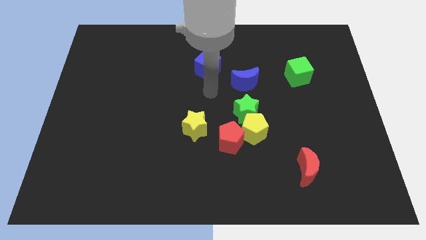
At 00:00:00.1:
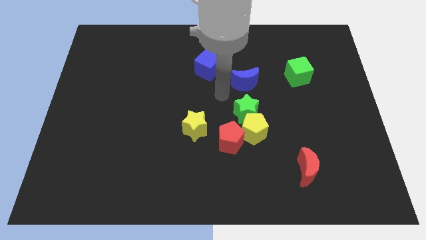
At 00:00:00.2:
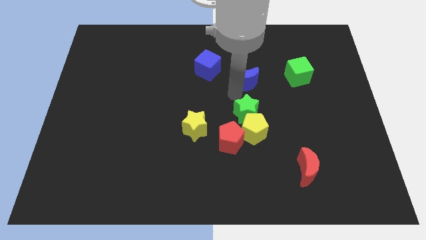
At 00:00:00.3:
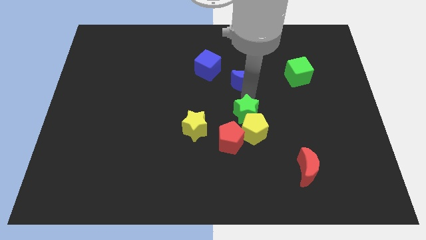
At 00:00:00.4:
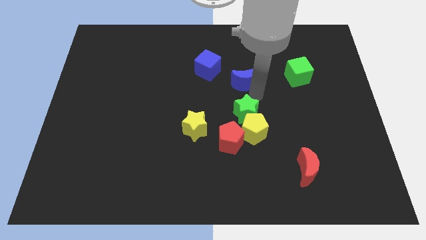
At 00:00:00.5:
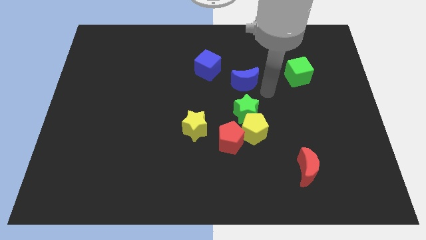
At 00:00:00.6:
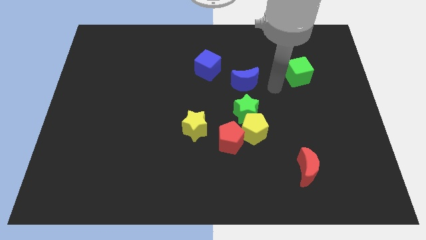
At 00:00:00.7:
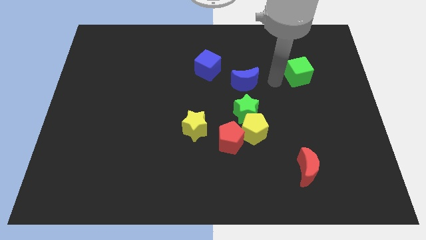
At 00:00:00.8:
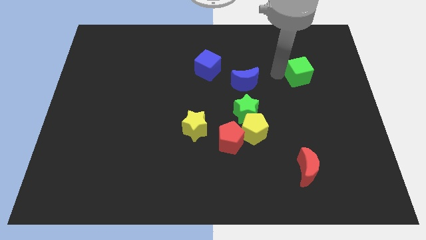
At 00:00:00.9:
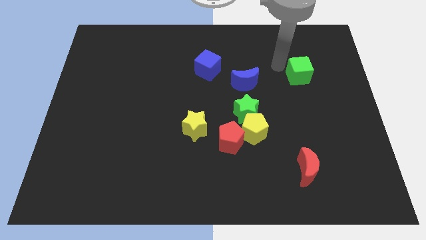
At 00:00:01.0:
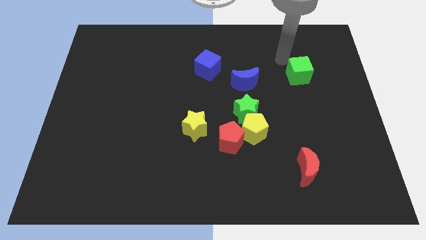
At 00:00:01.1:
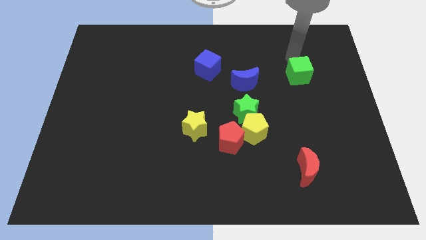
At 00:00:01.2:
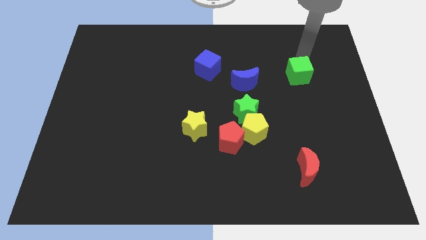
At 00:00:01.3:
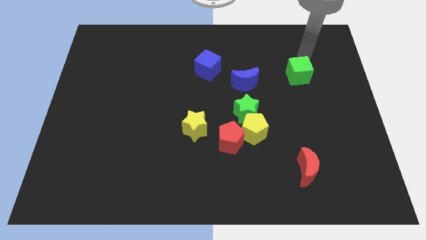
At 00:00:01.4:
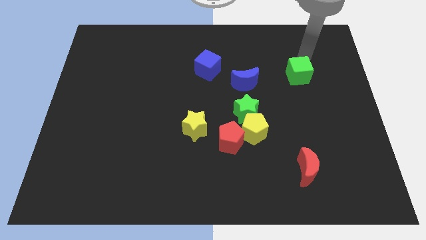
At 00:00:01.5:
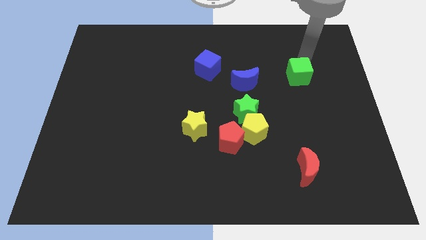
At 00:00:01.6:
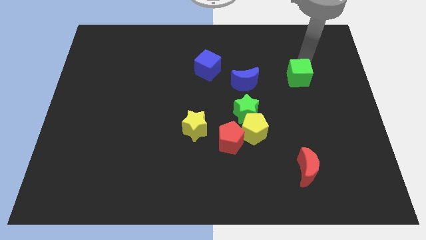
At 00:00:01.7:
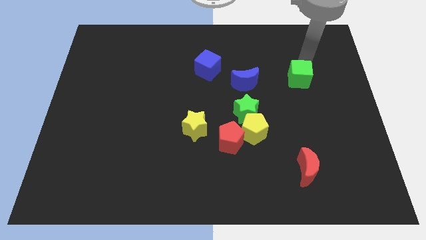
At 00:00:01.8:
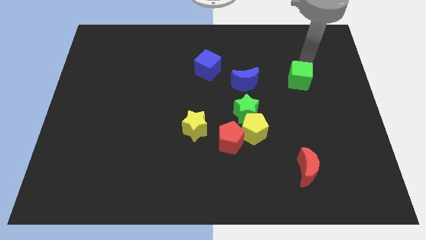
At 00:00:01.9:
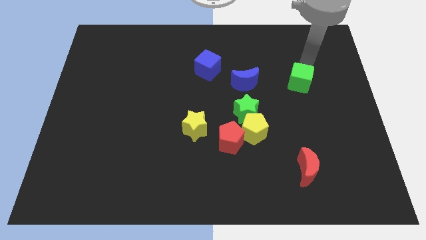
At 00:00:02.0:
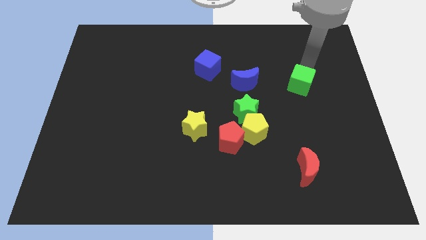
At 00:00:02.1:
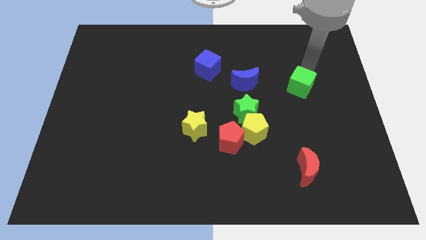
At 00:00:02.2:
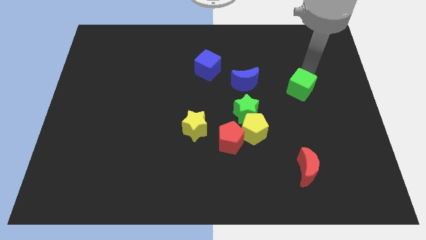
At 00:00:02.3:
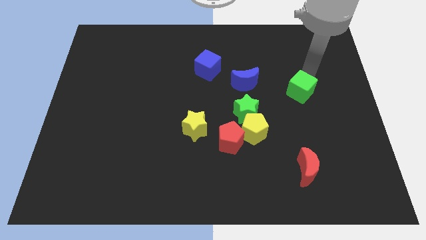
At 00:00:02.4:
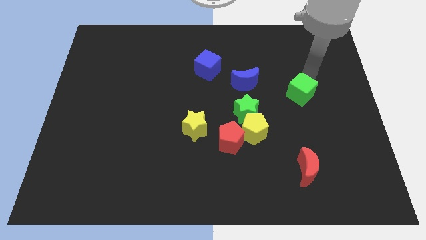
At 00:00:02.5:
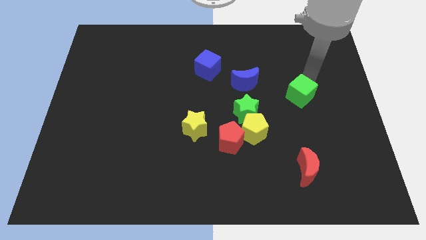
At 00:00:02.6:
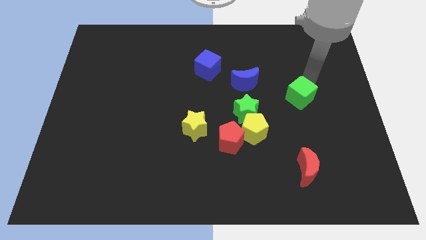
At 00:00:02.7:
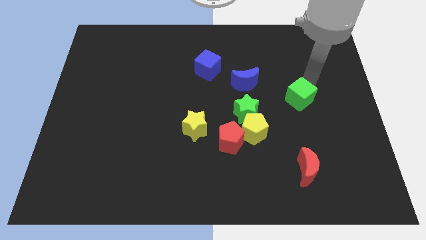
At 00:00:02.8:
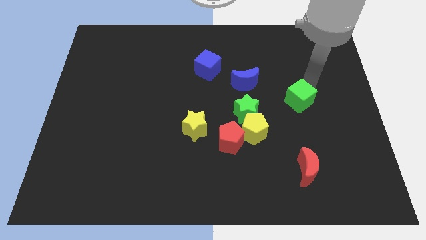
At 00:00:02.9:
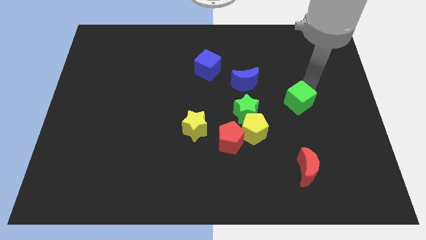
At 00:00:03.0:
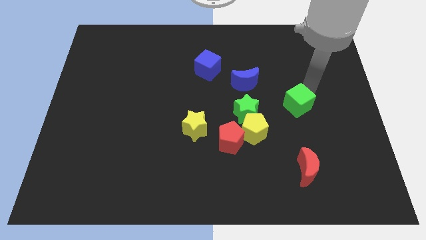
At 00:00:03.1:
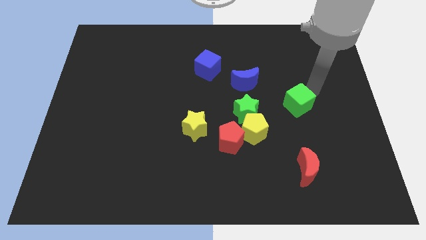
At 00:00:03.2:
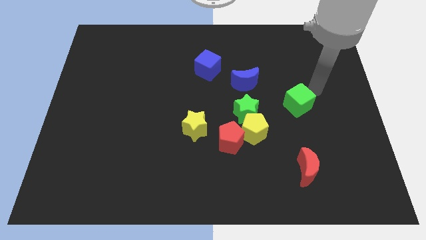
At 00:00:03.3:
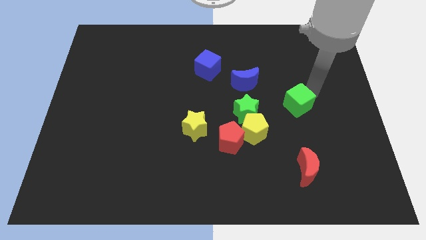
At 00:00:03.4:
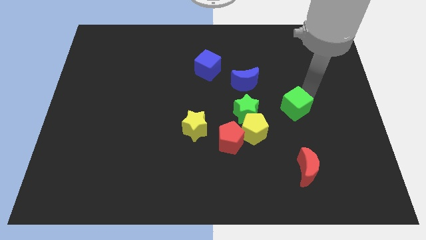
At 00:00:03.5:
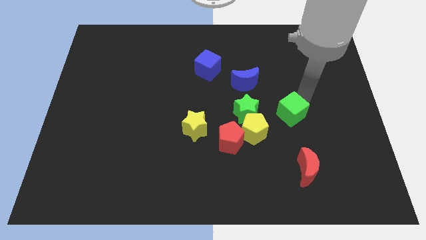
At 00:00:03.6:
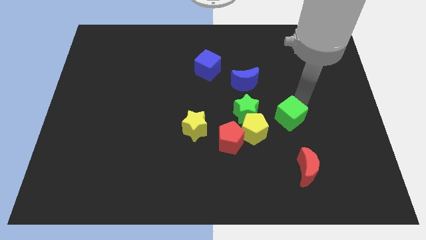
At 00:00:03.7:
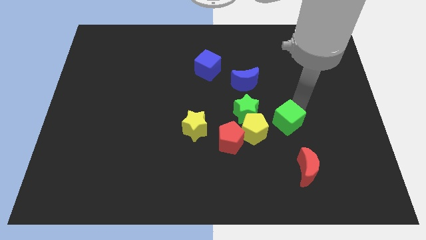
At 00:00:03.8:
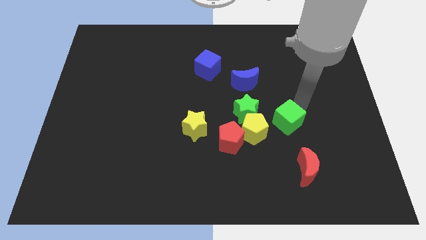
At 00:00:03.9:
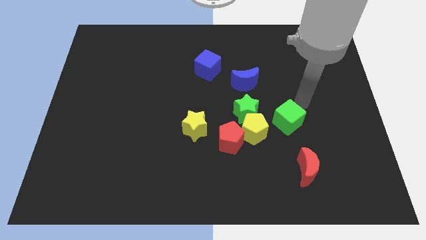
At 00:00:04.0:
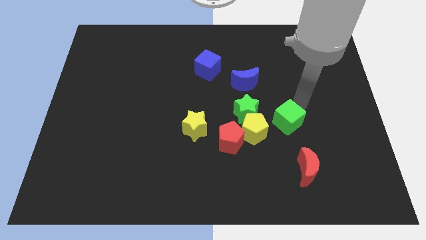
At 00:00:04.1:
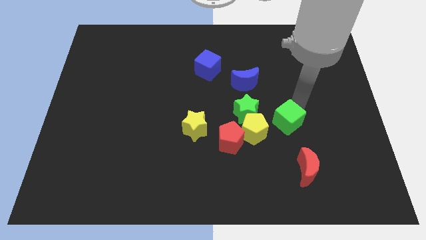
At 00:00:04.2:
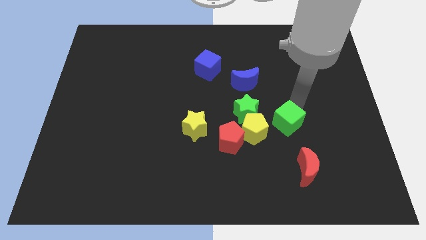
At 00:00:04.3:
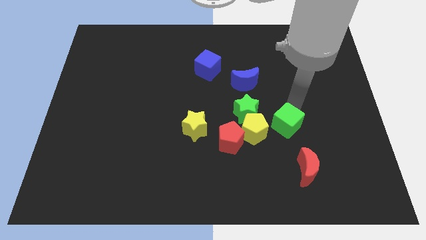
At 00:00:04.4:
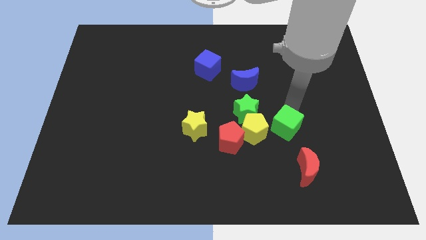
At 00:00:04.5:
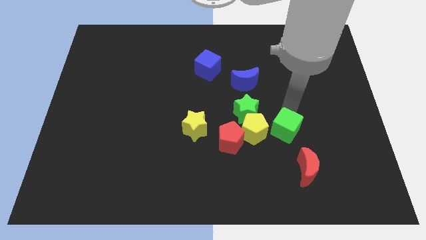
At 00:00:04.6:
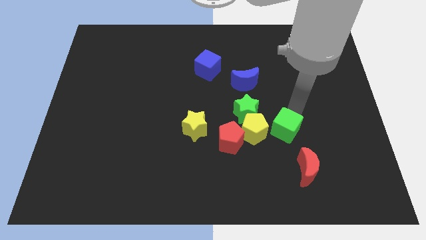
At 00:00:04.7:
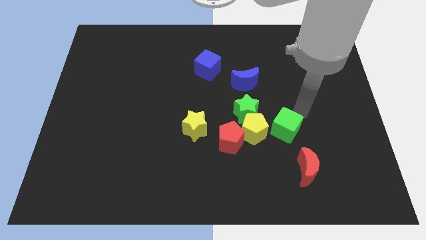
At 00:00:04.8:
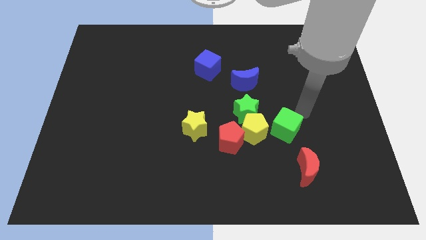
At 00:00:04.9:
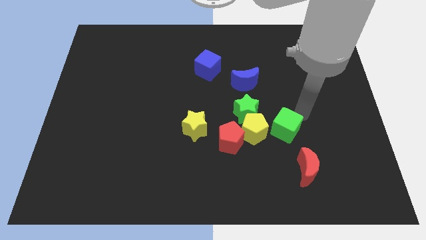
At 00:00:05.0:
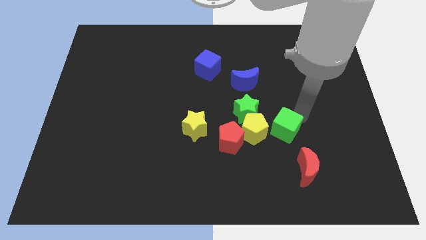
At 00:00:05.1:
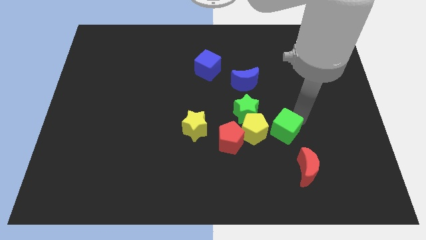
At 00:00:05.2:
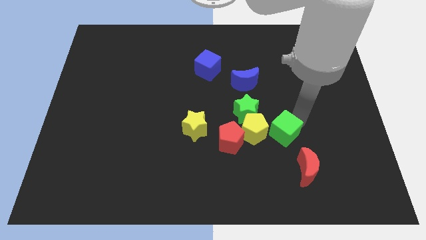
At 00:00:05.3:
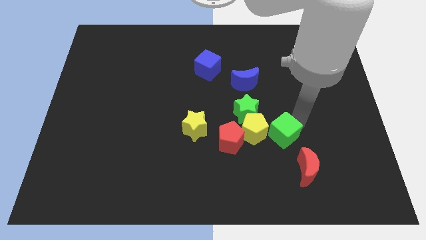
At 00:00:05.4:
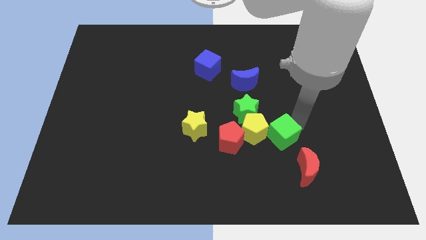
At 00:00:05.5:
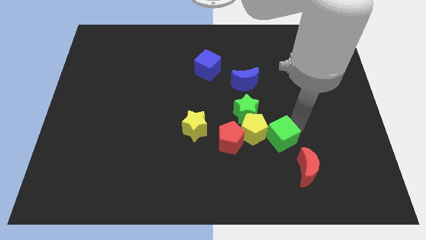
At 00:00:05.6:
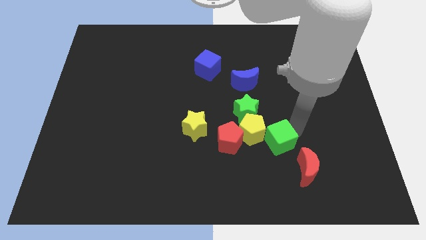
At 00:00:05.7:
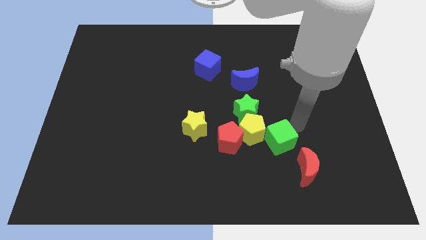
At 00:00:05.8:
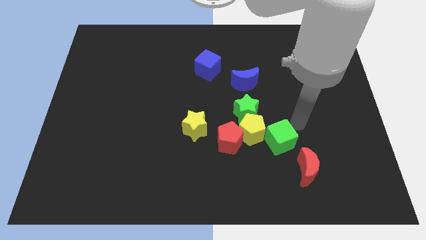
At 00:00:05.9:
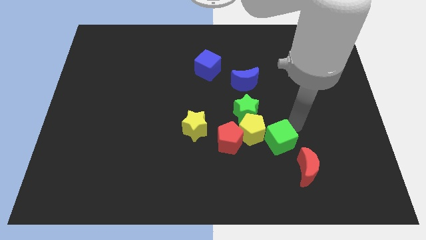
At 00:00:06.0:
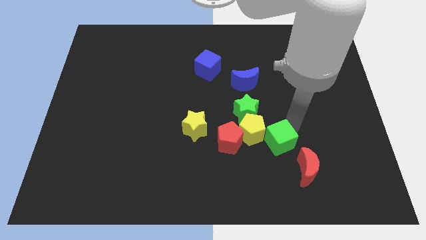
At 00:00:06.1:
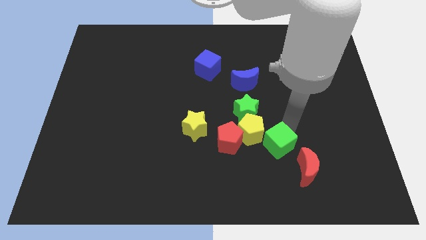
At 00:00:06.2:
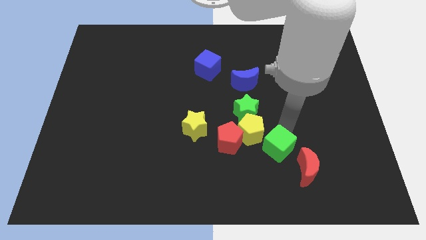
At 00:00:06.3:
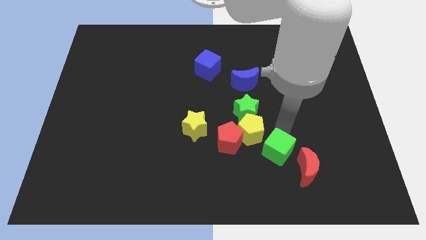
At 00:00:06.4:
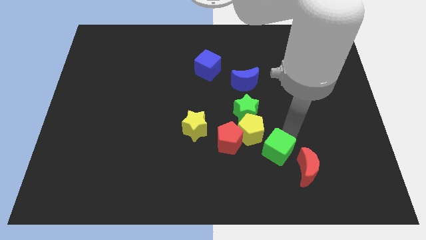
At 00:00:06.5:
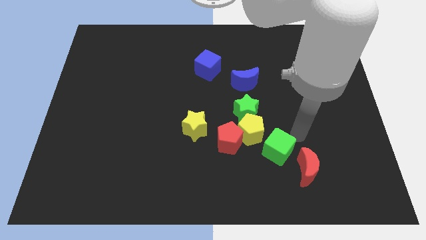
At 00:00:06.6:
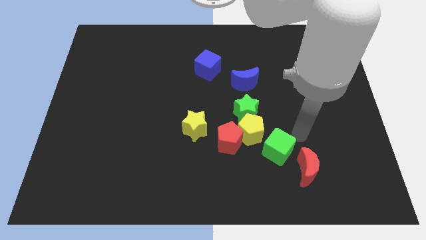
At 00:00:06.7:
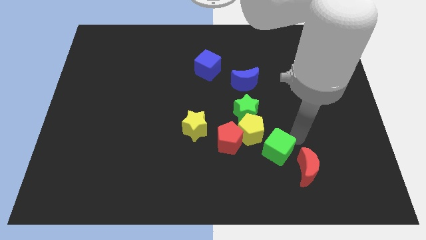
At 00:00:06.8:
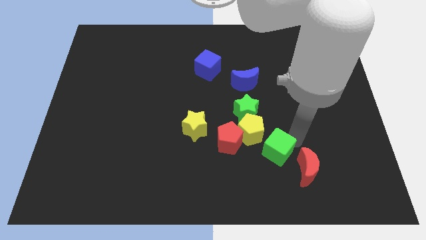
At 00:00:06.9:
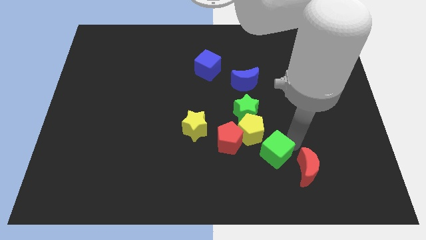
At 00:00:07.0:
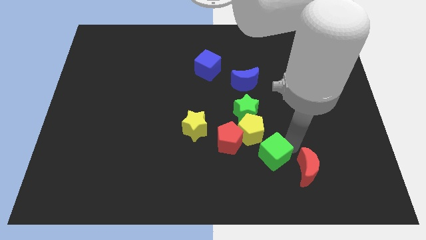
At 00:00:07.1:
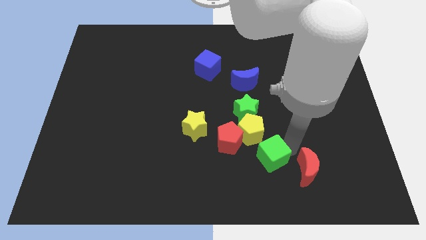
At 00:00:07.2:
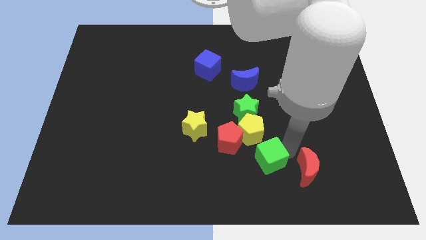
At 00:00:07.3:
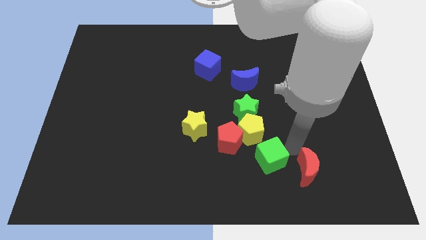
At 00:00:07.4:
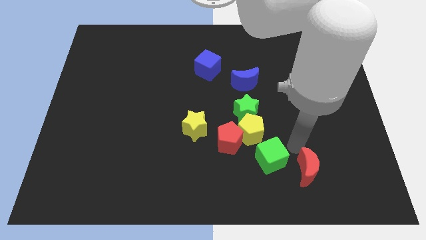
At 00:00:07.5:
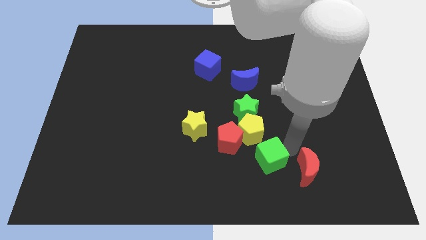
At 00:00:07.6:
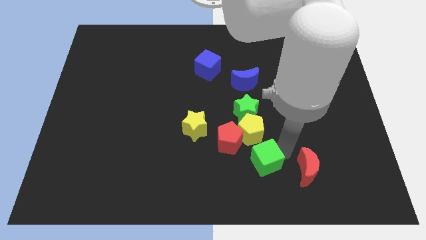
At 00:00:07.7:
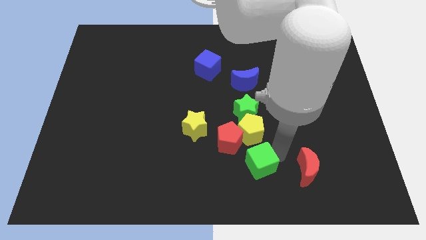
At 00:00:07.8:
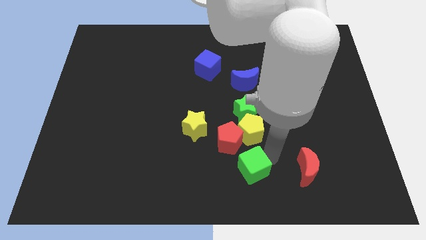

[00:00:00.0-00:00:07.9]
slide the green cube to the bottom
